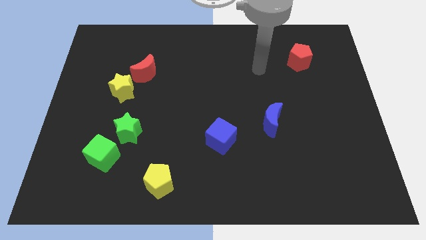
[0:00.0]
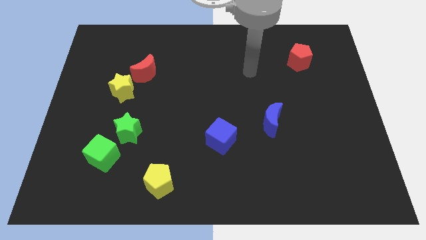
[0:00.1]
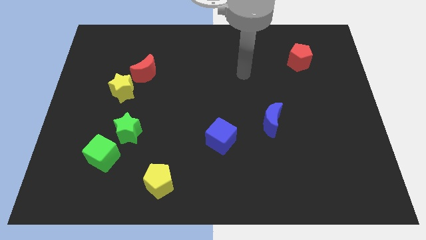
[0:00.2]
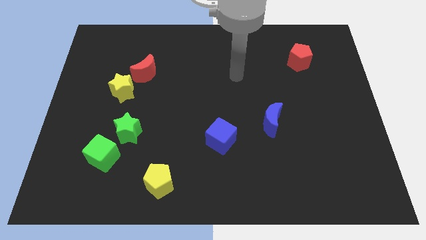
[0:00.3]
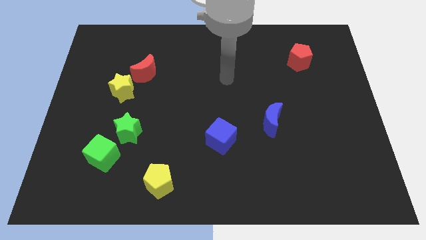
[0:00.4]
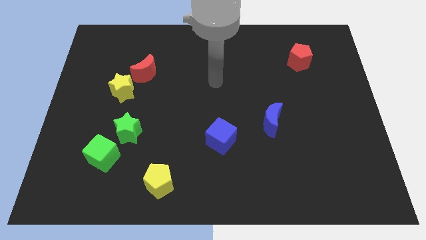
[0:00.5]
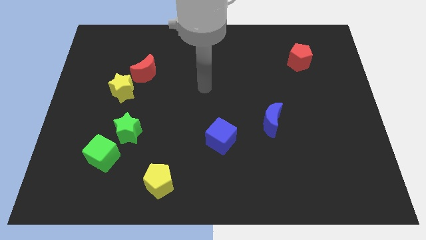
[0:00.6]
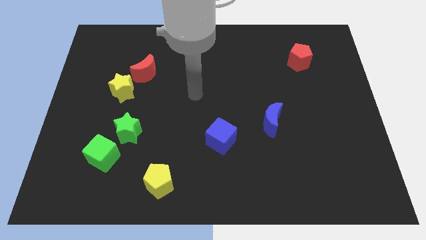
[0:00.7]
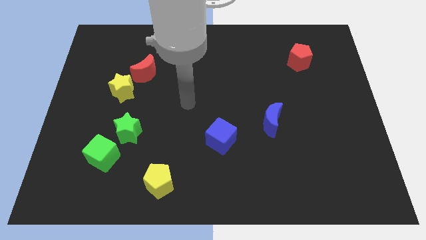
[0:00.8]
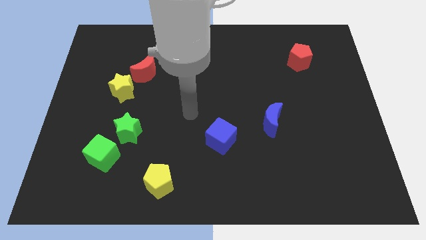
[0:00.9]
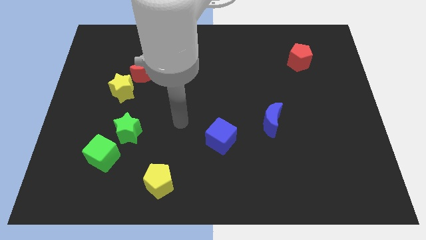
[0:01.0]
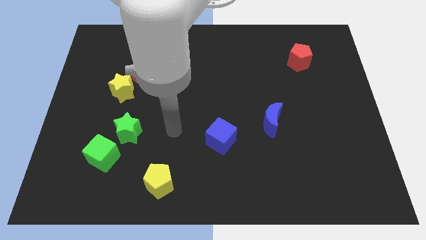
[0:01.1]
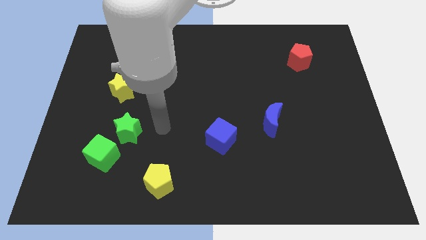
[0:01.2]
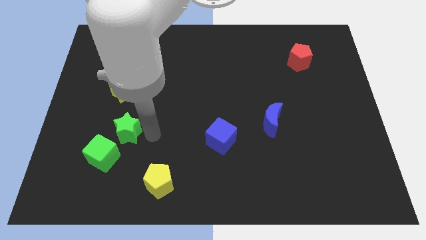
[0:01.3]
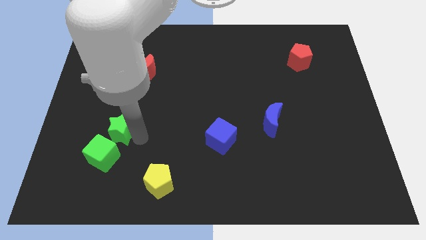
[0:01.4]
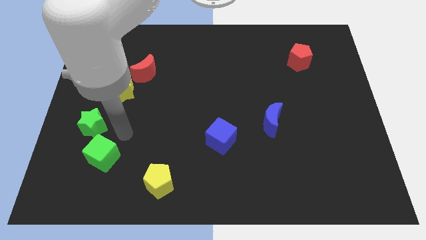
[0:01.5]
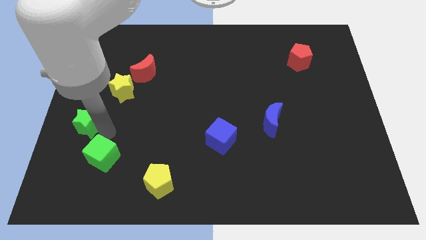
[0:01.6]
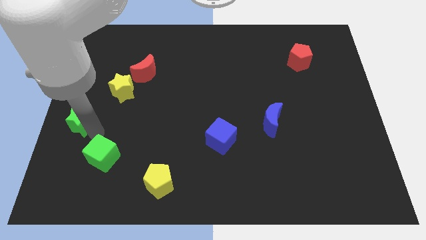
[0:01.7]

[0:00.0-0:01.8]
move the green cube away from the green star

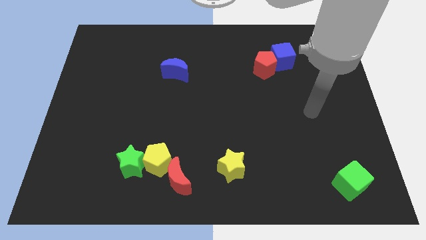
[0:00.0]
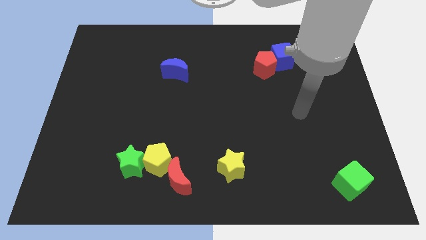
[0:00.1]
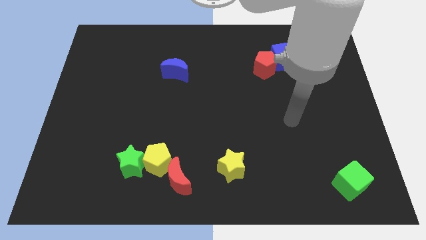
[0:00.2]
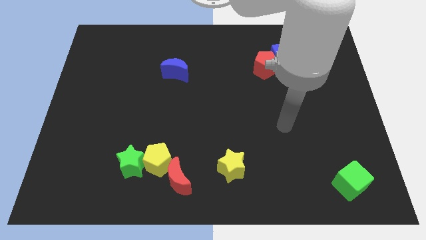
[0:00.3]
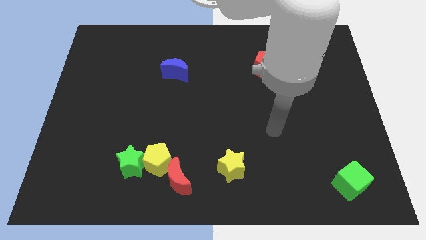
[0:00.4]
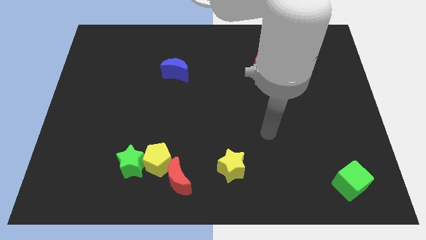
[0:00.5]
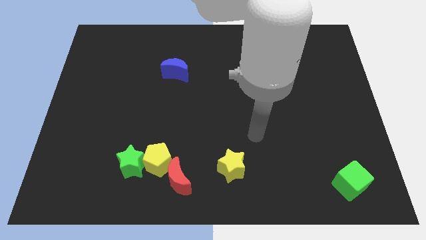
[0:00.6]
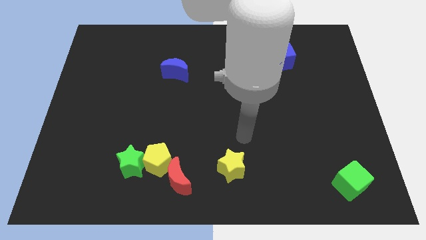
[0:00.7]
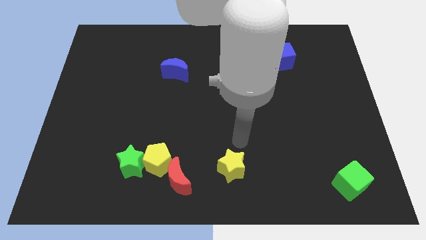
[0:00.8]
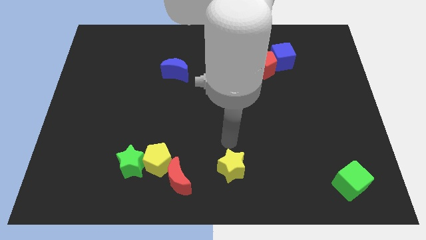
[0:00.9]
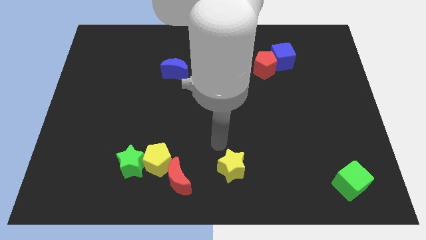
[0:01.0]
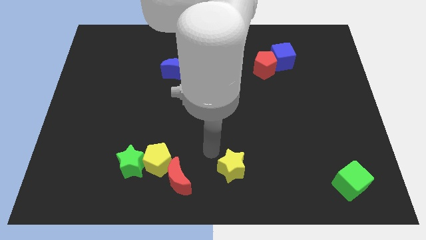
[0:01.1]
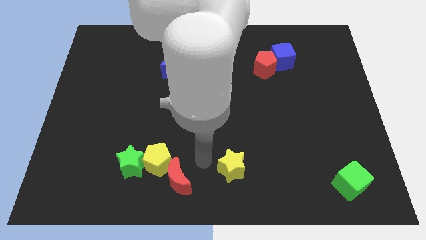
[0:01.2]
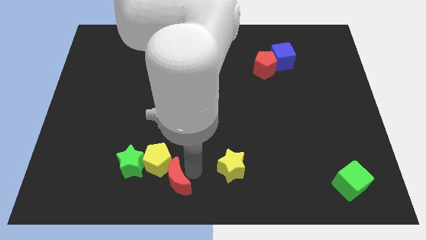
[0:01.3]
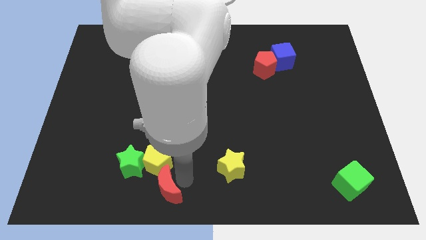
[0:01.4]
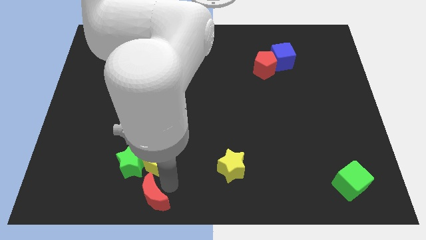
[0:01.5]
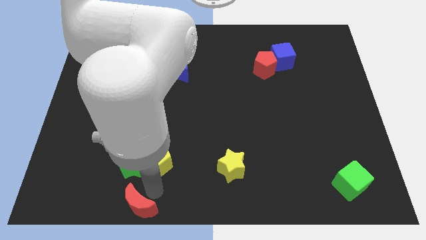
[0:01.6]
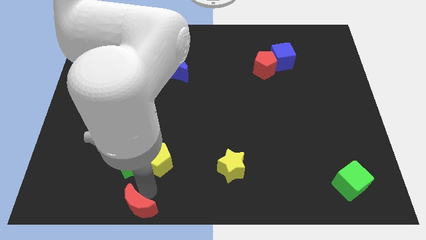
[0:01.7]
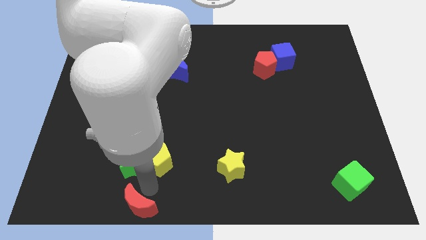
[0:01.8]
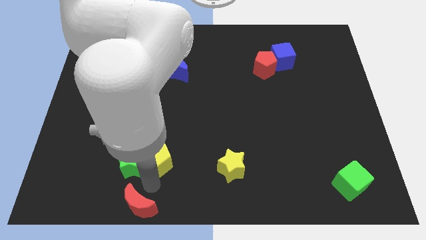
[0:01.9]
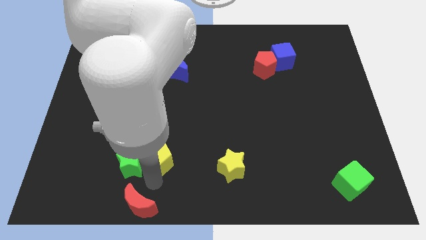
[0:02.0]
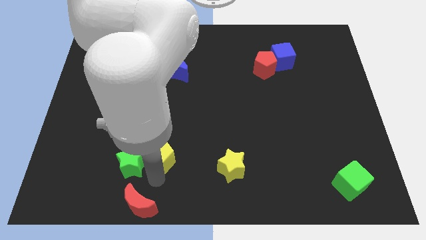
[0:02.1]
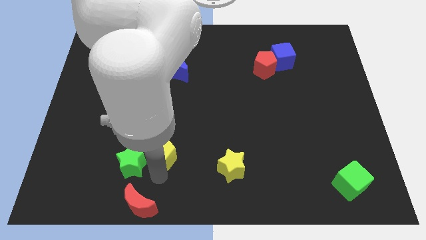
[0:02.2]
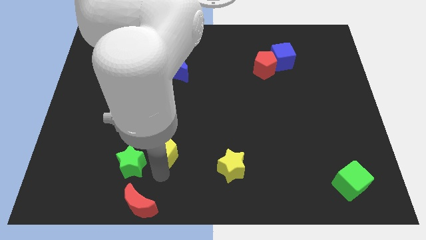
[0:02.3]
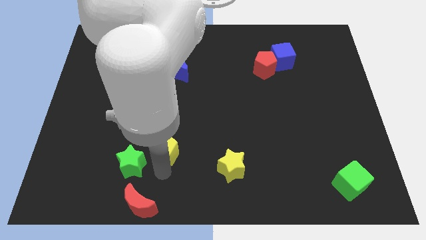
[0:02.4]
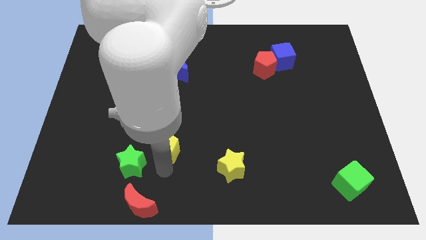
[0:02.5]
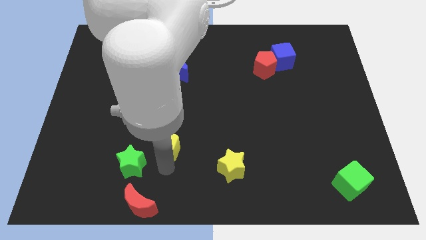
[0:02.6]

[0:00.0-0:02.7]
move the yellow pentagon away from the green star and red moon

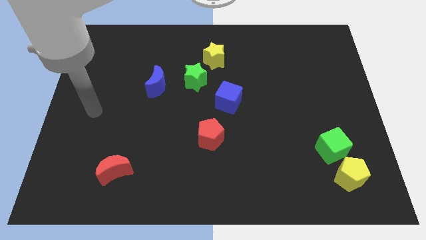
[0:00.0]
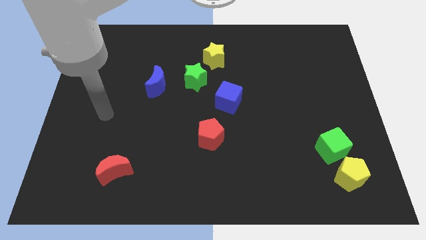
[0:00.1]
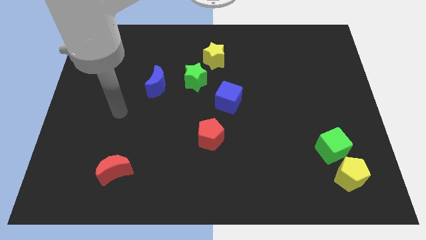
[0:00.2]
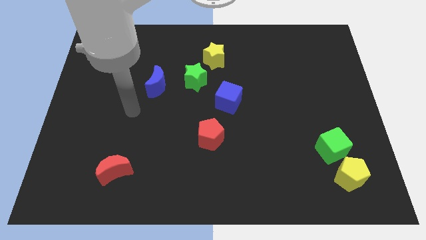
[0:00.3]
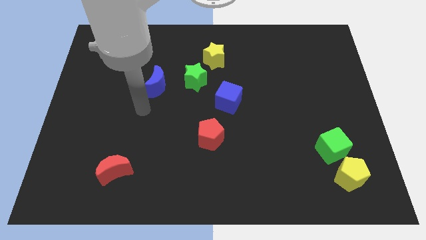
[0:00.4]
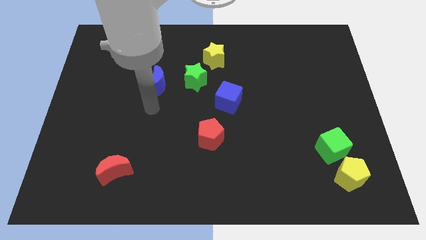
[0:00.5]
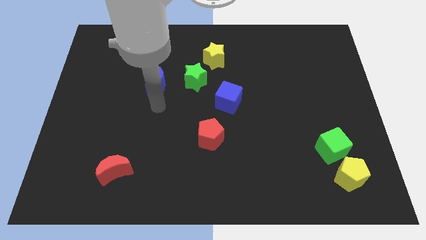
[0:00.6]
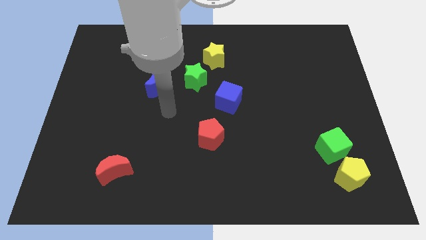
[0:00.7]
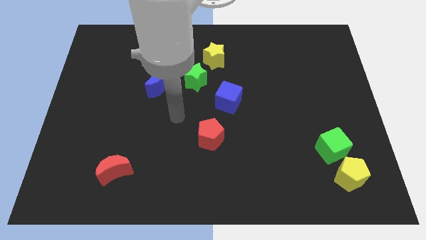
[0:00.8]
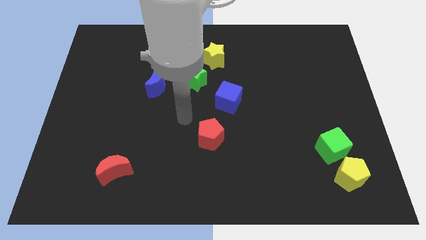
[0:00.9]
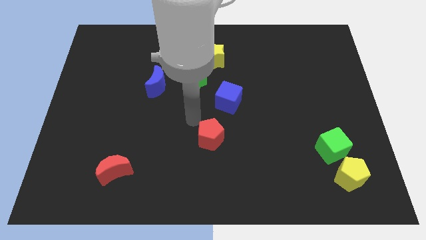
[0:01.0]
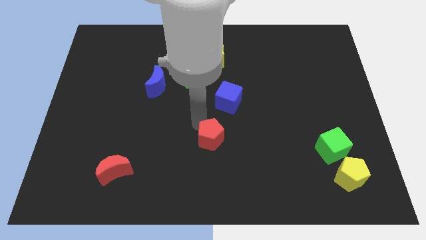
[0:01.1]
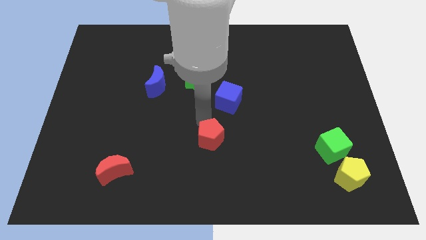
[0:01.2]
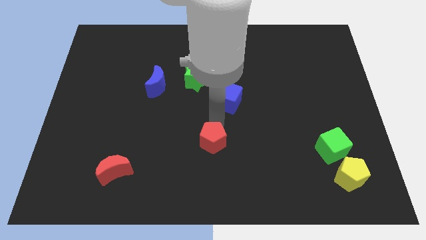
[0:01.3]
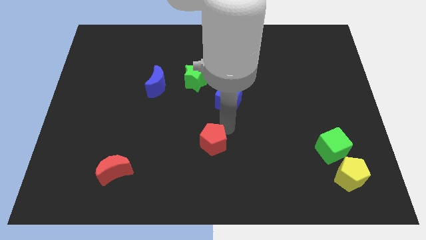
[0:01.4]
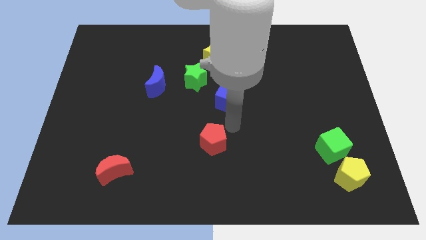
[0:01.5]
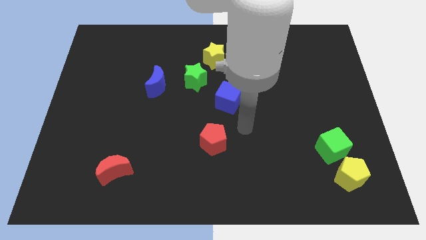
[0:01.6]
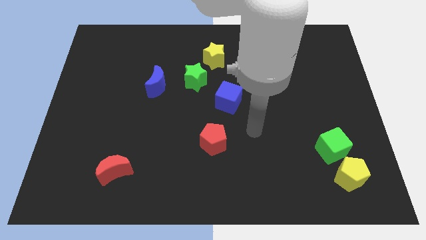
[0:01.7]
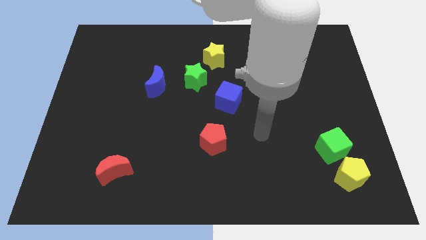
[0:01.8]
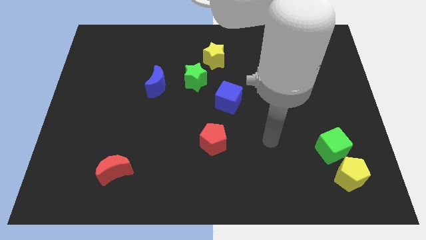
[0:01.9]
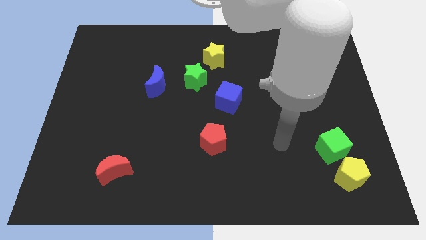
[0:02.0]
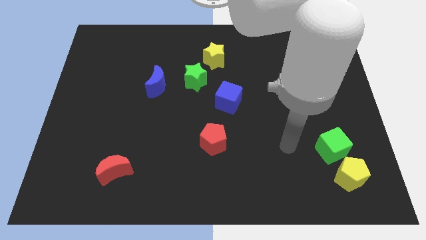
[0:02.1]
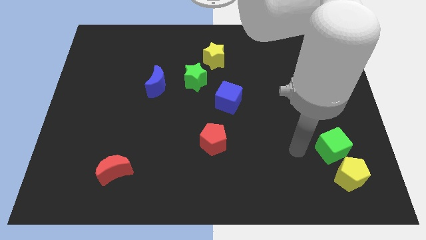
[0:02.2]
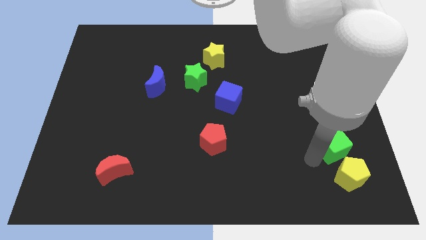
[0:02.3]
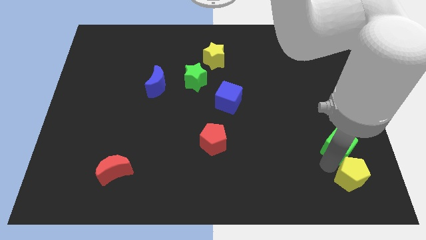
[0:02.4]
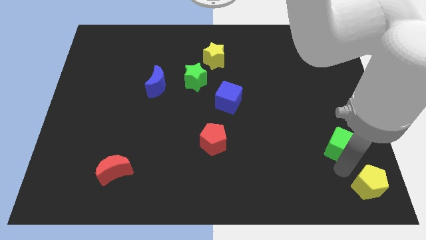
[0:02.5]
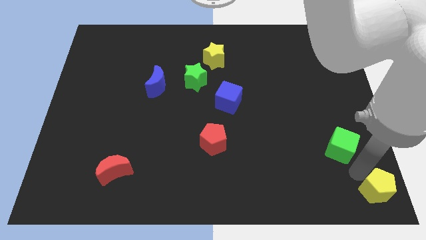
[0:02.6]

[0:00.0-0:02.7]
separate the green cube from the yellow pentagon

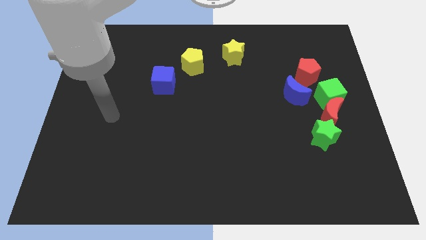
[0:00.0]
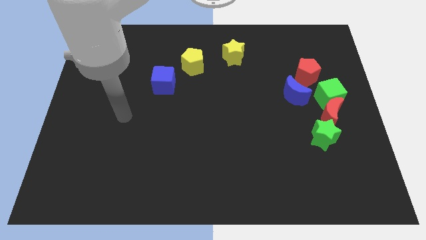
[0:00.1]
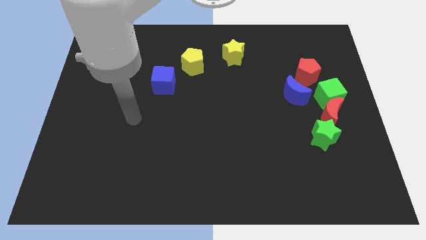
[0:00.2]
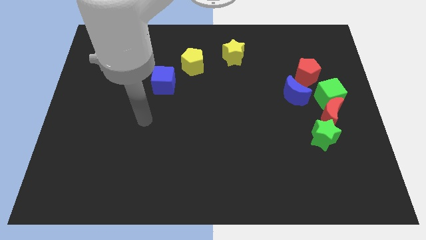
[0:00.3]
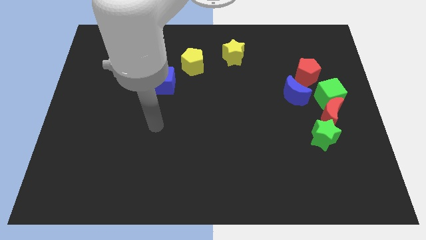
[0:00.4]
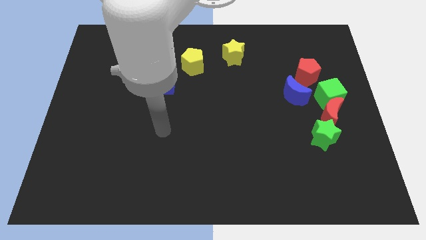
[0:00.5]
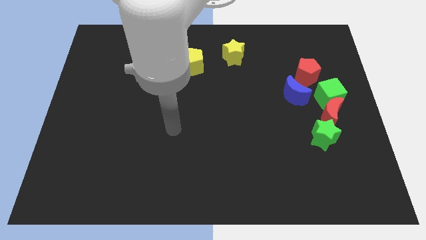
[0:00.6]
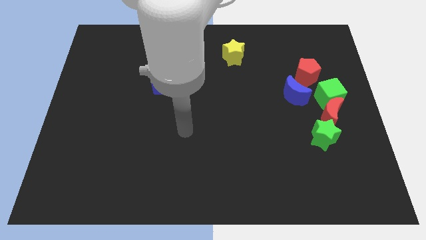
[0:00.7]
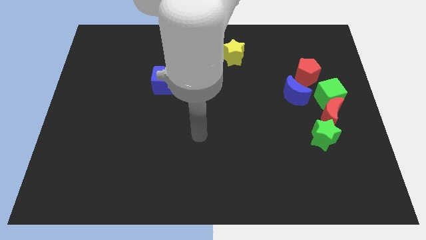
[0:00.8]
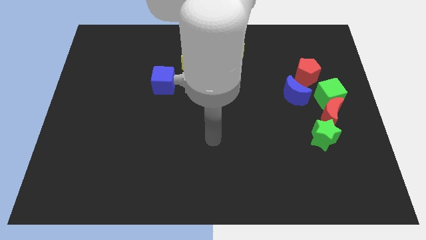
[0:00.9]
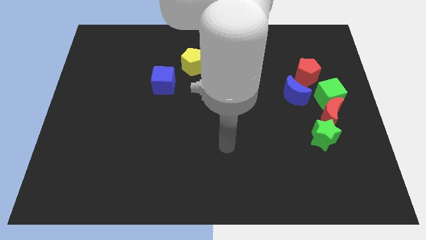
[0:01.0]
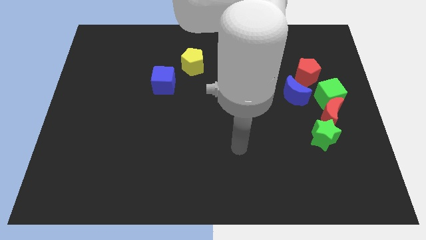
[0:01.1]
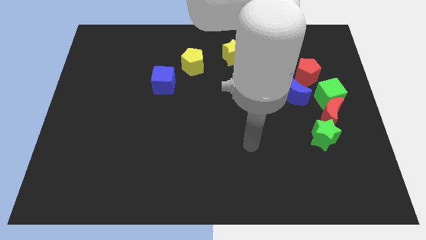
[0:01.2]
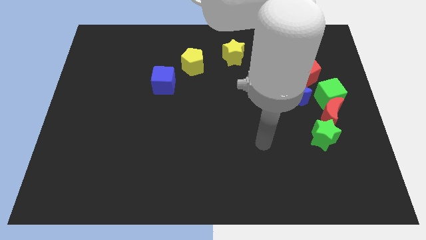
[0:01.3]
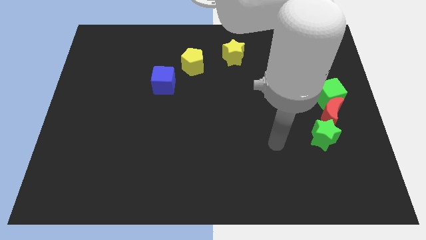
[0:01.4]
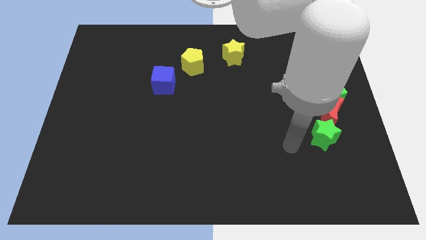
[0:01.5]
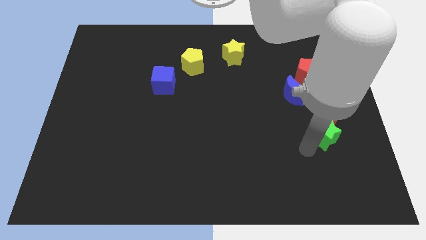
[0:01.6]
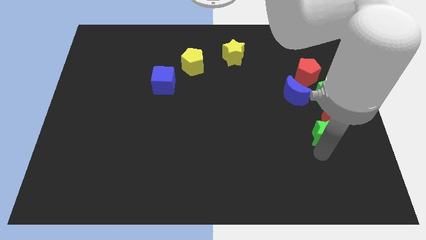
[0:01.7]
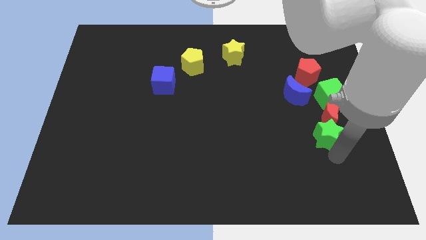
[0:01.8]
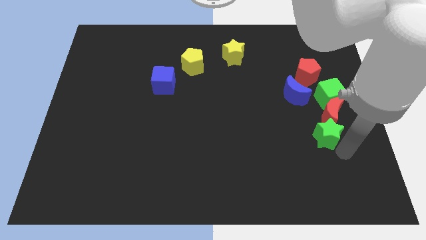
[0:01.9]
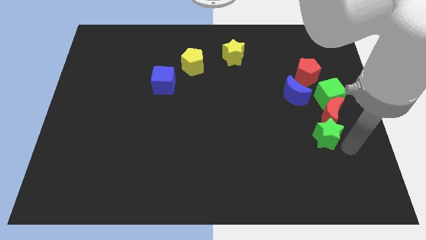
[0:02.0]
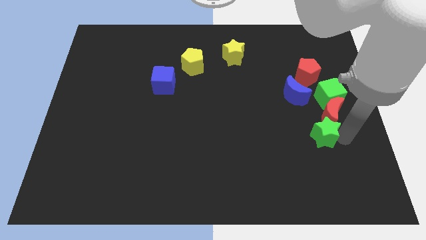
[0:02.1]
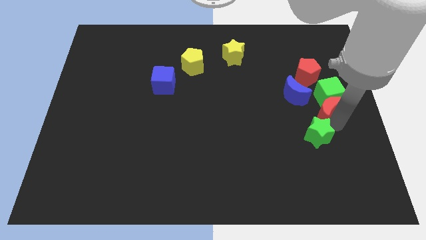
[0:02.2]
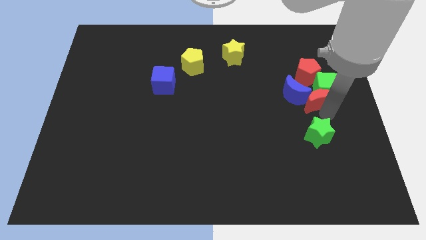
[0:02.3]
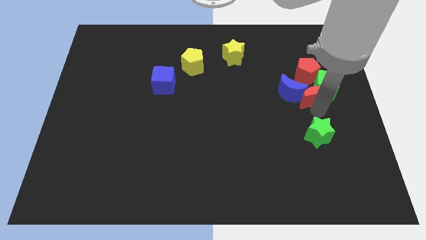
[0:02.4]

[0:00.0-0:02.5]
separate the green star from the red moon
